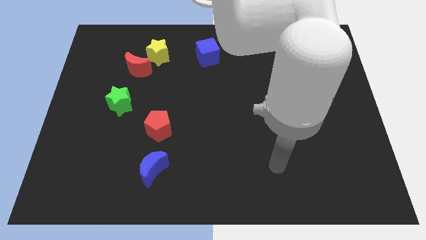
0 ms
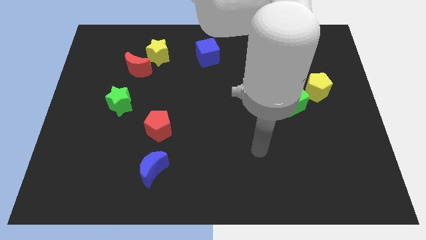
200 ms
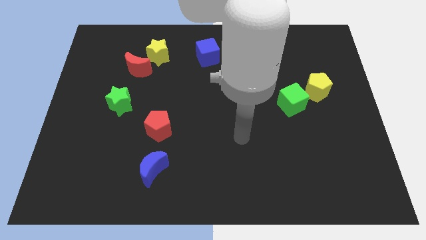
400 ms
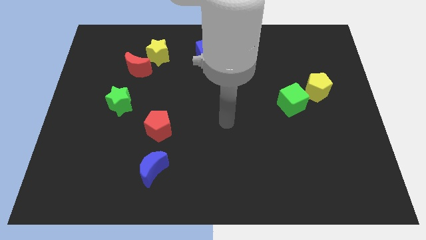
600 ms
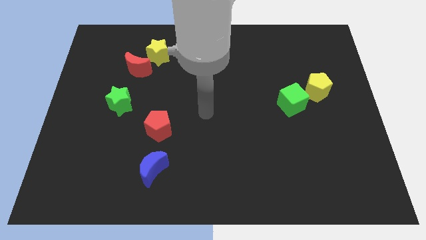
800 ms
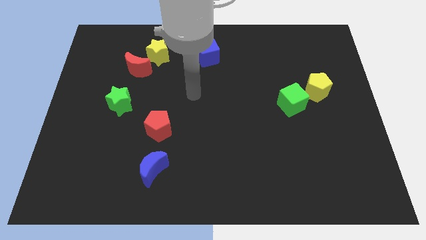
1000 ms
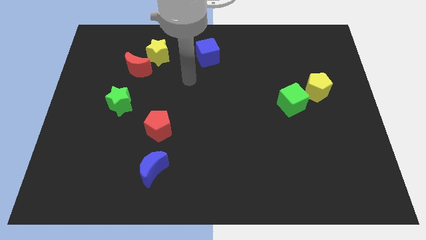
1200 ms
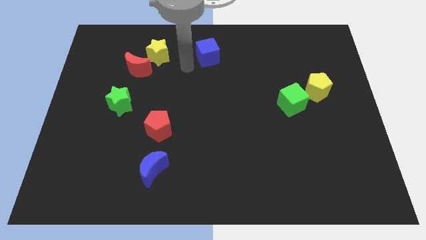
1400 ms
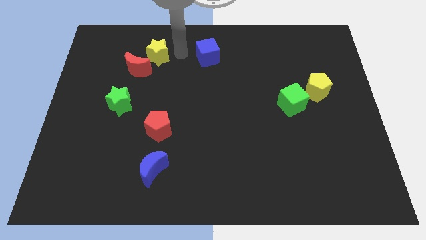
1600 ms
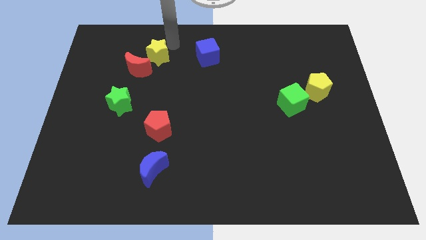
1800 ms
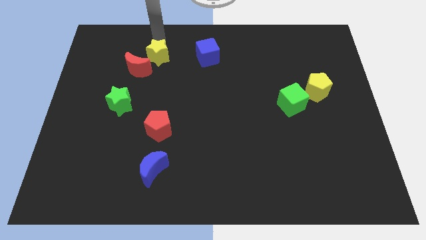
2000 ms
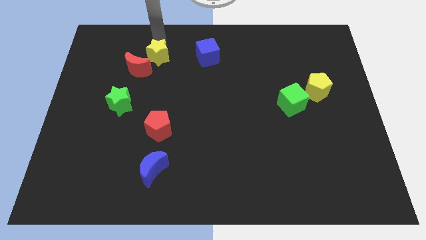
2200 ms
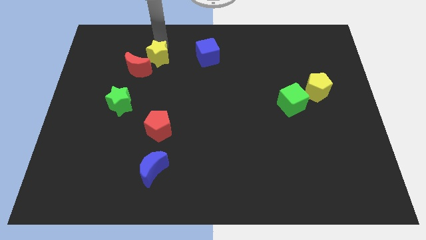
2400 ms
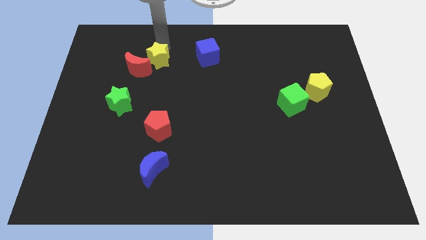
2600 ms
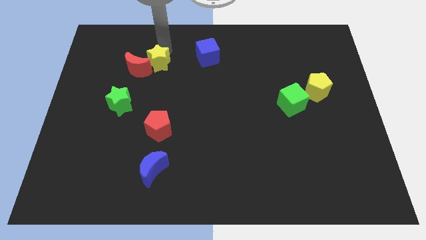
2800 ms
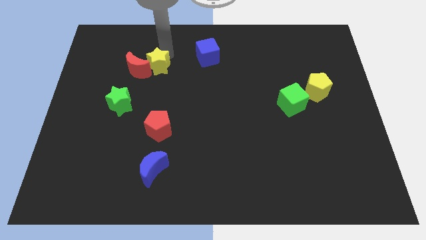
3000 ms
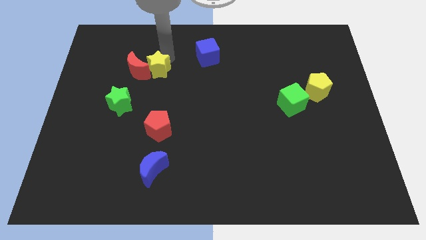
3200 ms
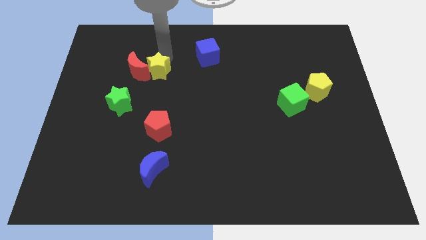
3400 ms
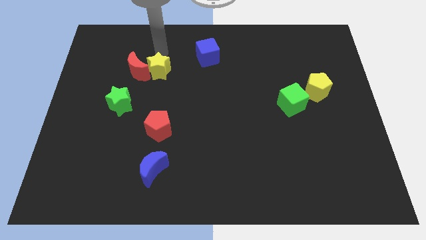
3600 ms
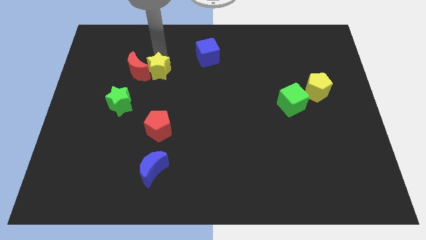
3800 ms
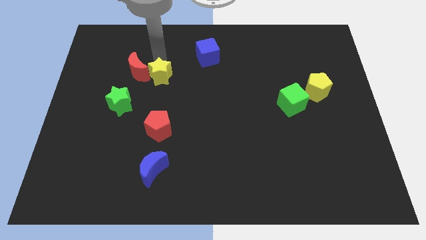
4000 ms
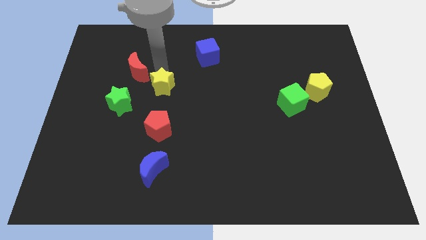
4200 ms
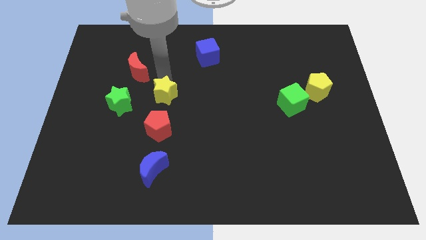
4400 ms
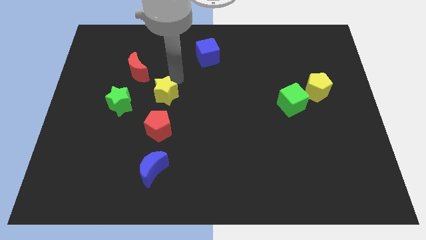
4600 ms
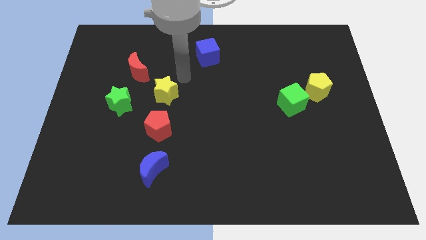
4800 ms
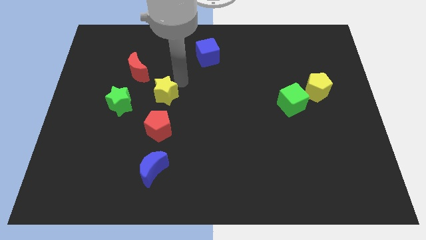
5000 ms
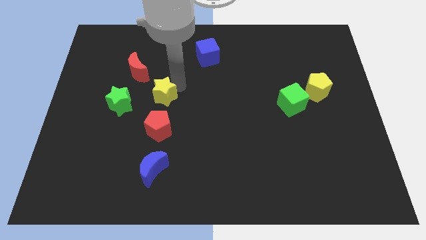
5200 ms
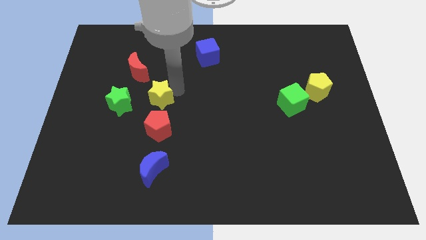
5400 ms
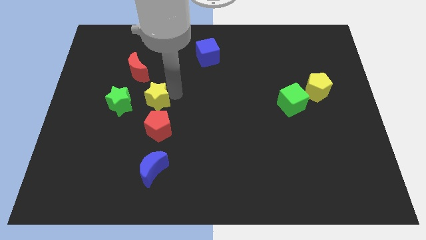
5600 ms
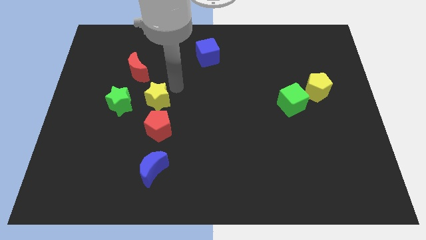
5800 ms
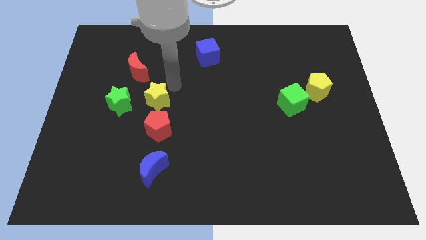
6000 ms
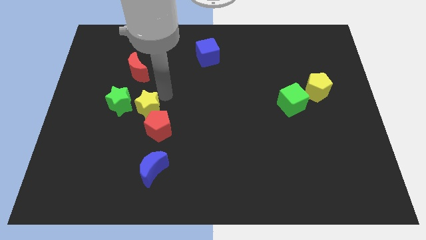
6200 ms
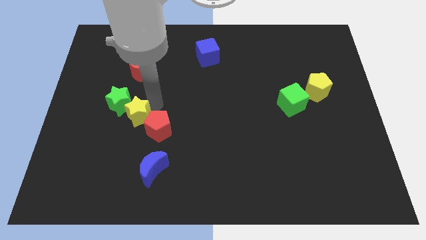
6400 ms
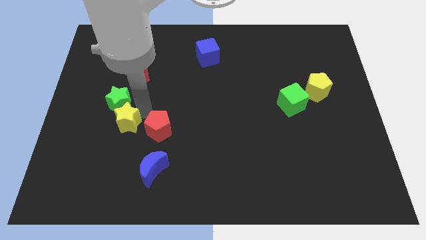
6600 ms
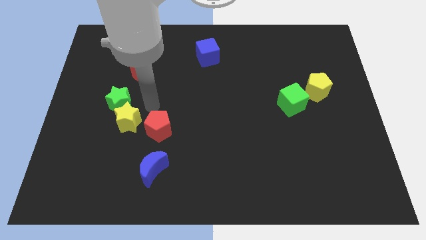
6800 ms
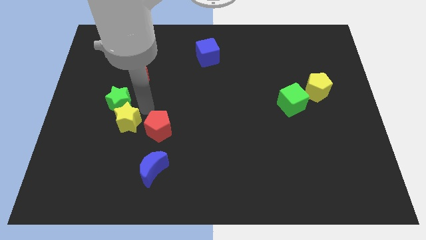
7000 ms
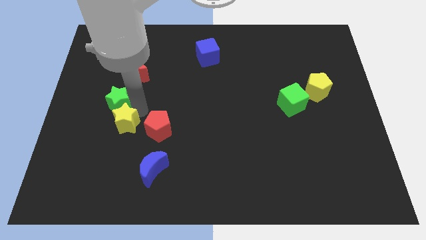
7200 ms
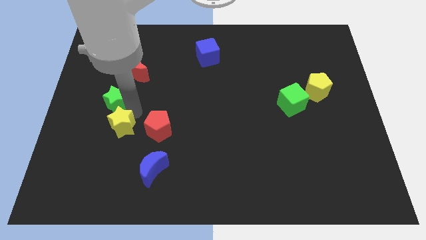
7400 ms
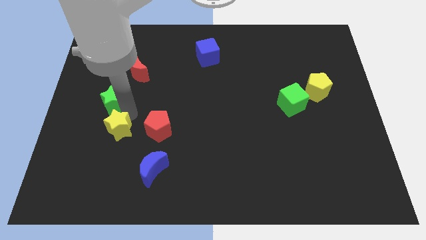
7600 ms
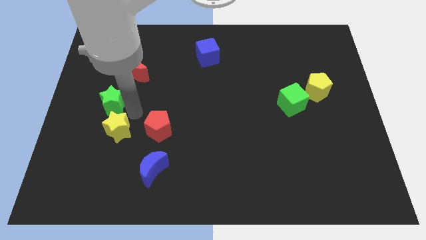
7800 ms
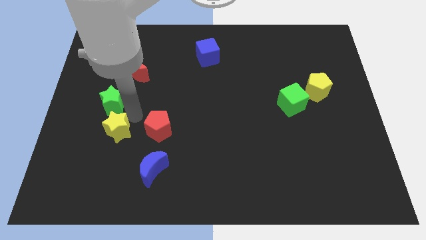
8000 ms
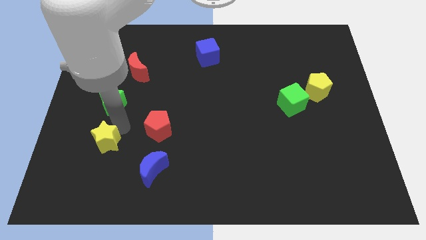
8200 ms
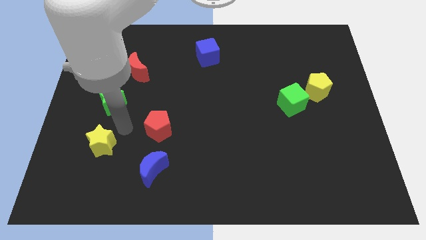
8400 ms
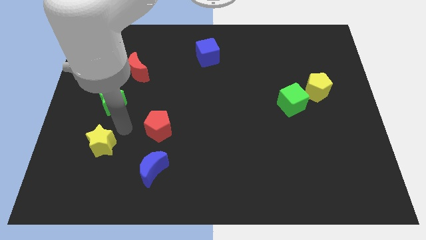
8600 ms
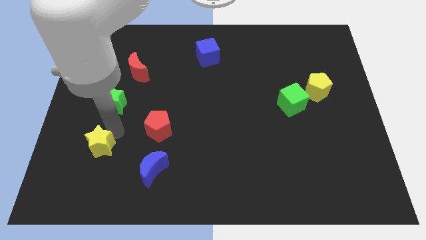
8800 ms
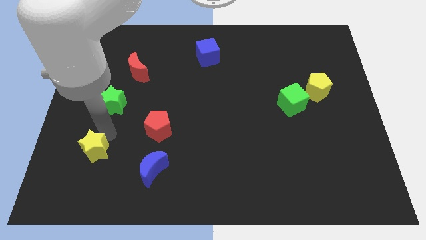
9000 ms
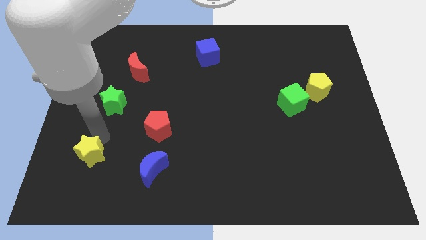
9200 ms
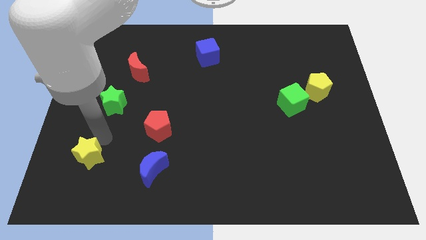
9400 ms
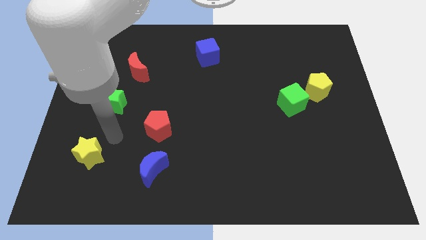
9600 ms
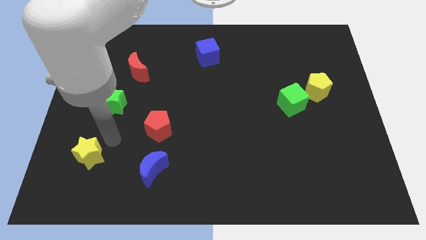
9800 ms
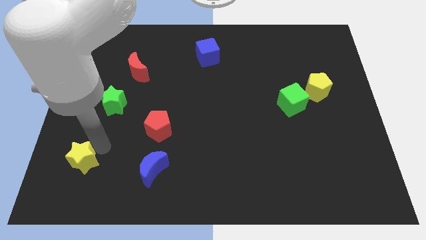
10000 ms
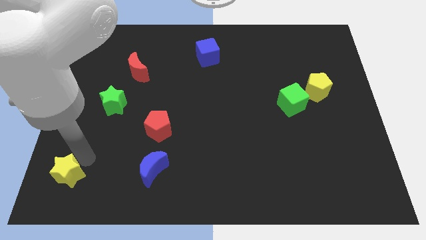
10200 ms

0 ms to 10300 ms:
move the yellow star to the bottom left corner

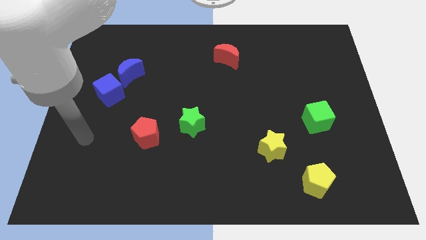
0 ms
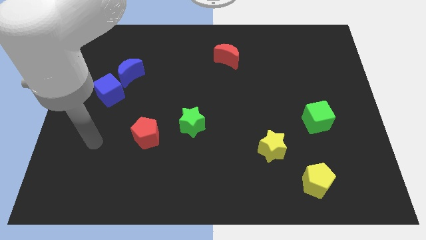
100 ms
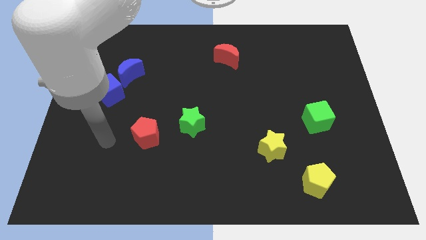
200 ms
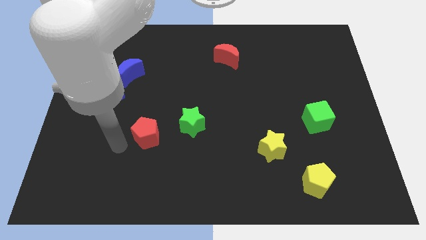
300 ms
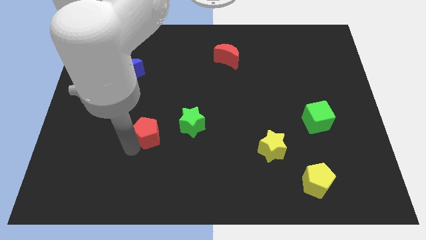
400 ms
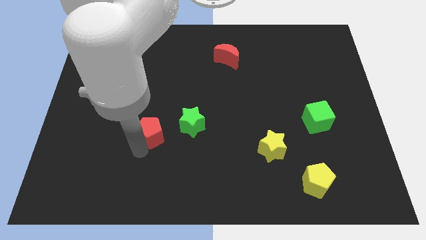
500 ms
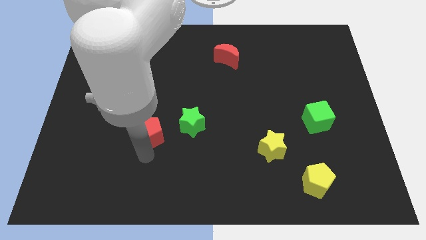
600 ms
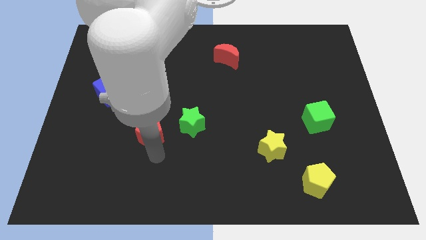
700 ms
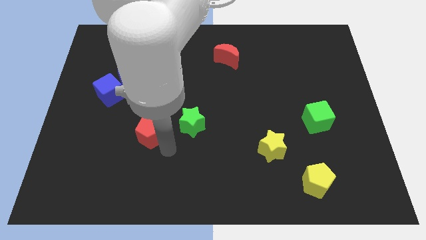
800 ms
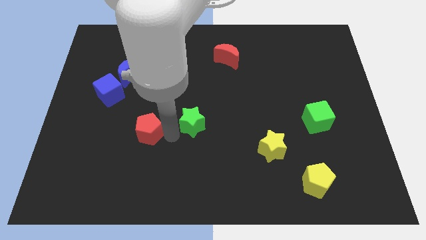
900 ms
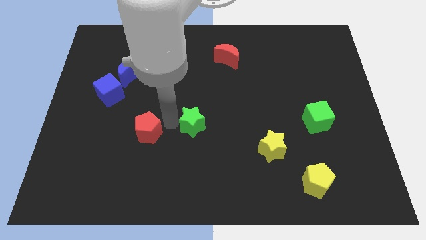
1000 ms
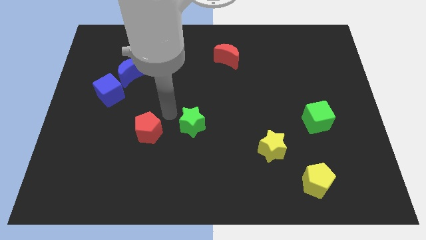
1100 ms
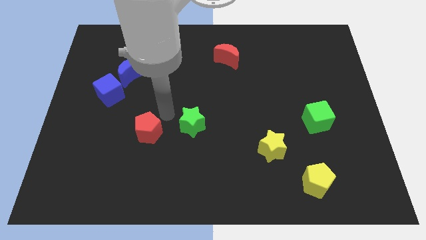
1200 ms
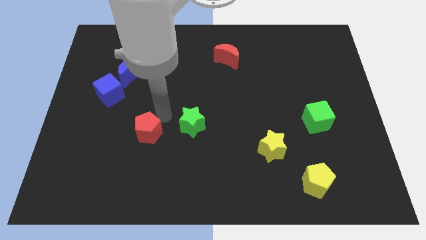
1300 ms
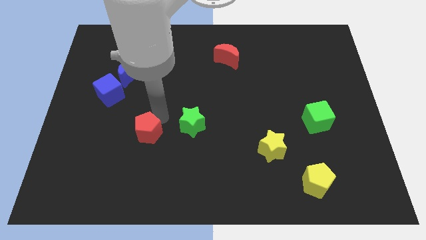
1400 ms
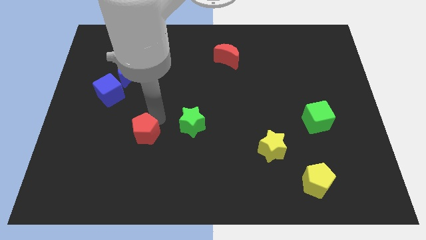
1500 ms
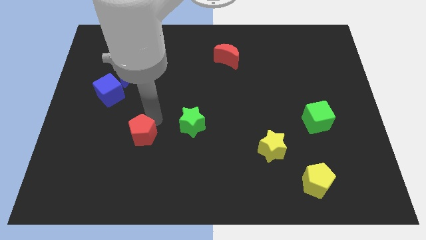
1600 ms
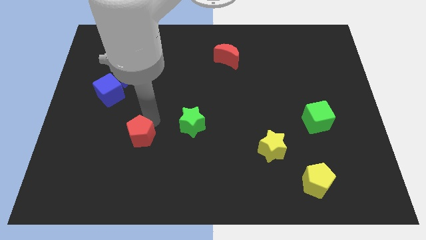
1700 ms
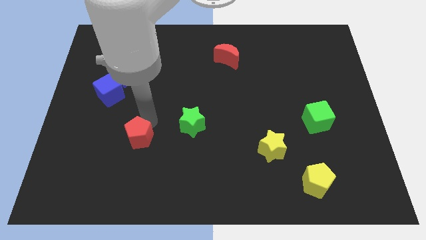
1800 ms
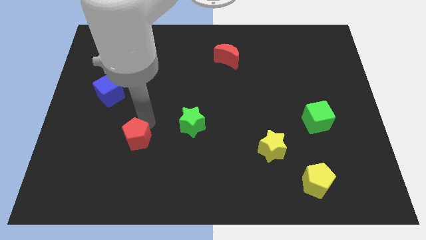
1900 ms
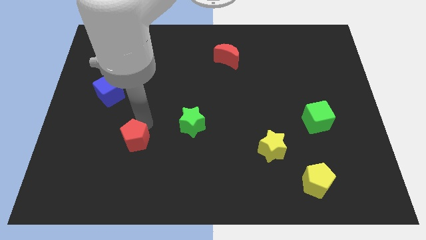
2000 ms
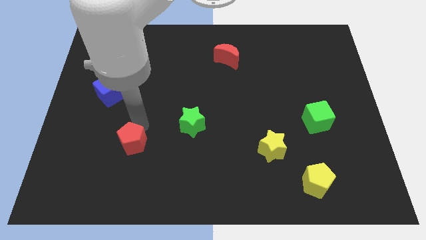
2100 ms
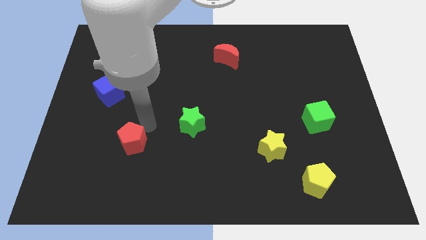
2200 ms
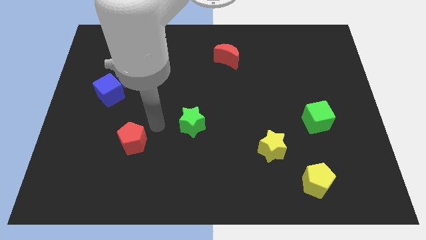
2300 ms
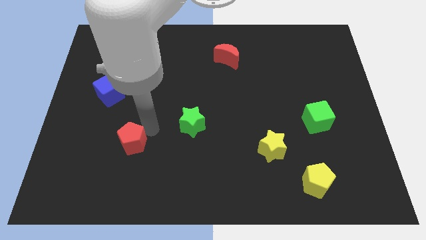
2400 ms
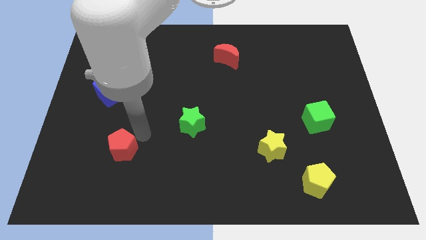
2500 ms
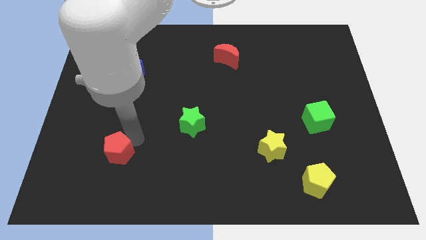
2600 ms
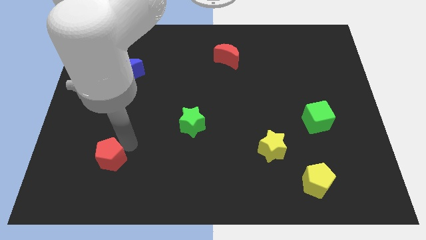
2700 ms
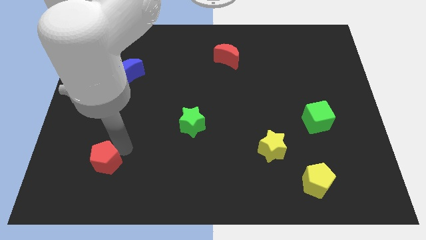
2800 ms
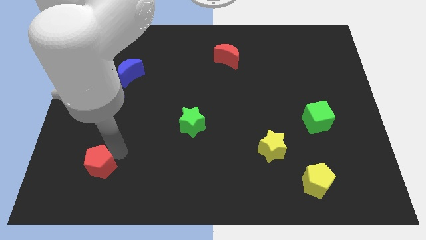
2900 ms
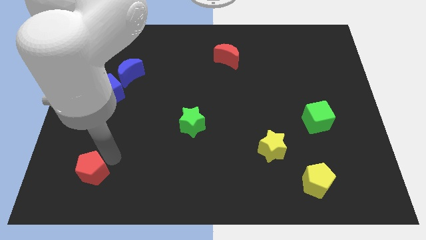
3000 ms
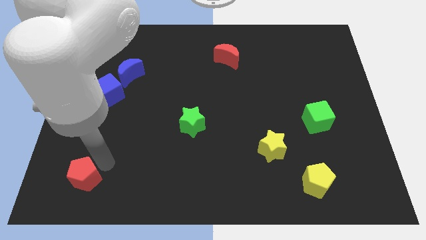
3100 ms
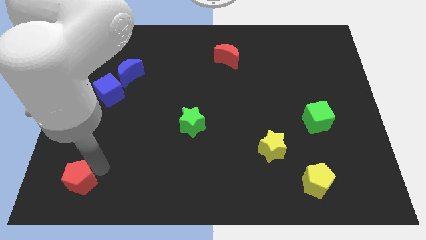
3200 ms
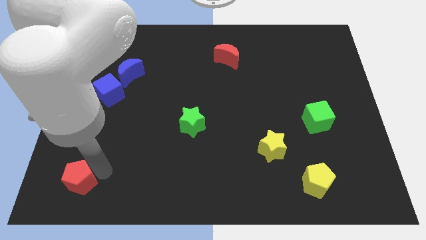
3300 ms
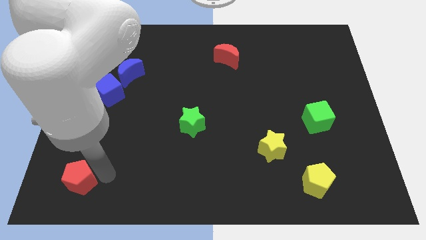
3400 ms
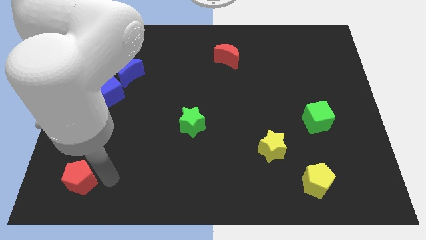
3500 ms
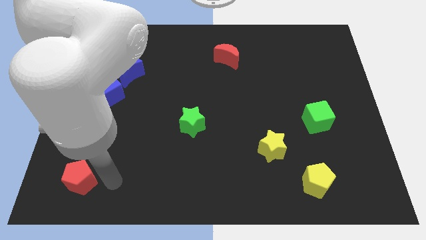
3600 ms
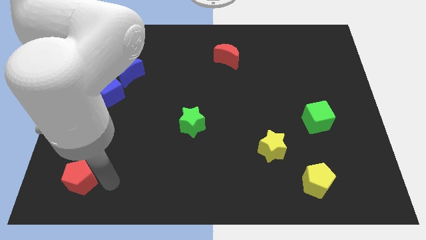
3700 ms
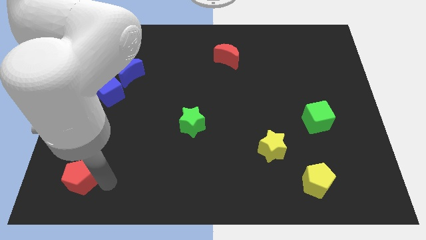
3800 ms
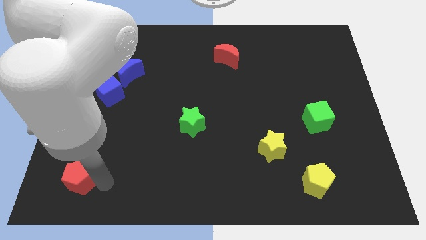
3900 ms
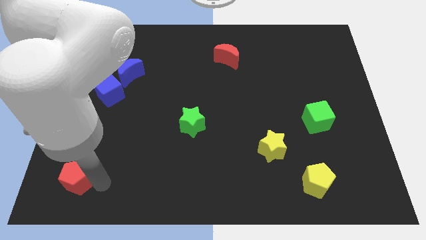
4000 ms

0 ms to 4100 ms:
slide the red pentagon to the bottom left corner
